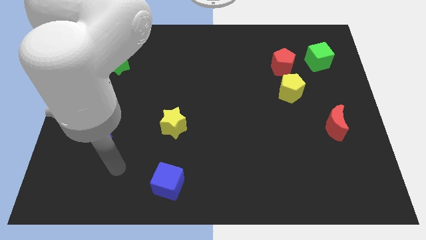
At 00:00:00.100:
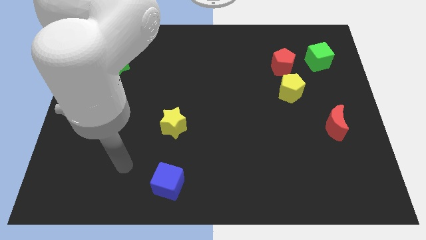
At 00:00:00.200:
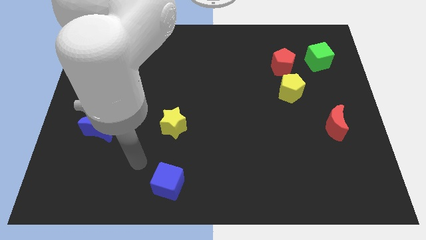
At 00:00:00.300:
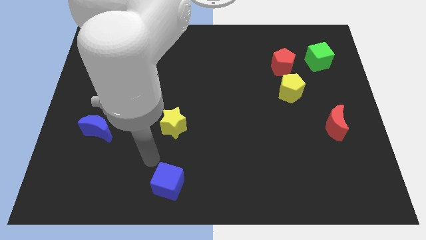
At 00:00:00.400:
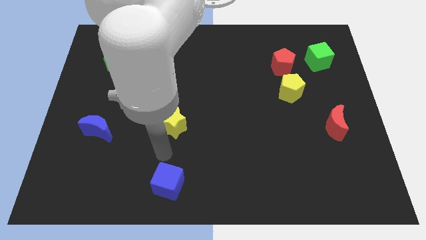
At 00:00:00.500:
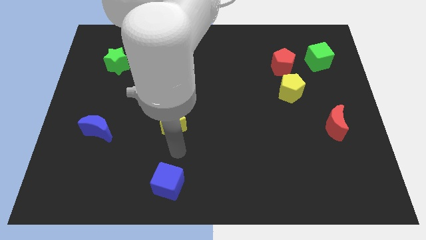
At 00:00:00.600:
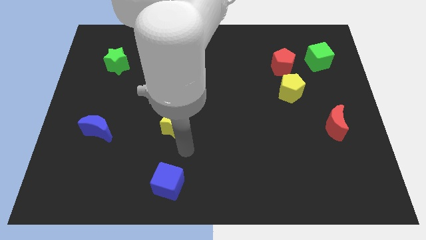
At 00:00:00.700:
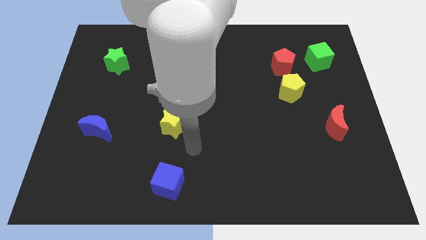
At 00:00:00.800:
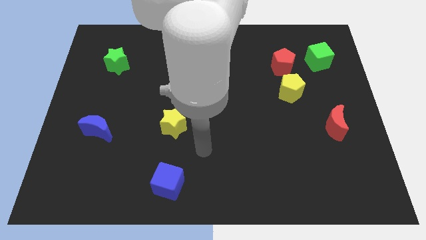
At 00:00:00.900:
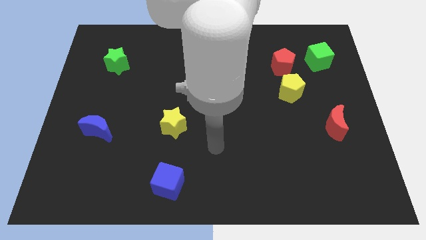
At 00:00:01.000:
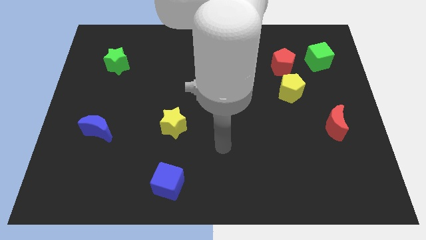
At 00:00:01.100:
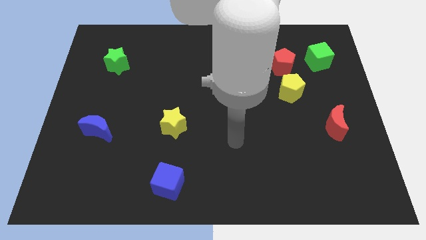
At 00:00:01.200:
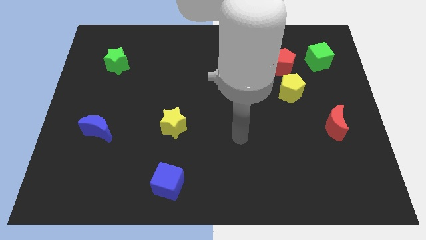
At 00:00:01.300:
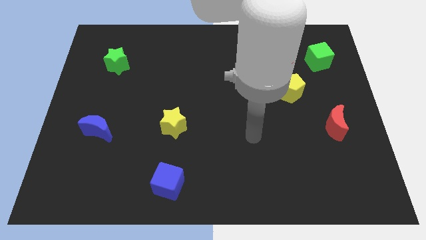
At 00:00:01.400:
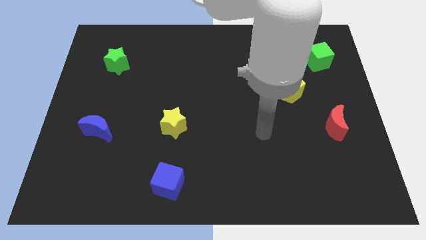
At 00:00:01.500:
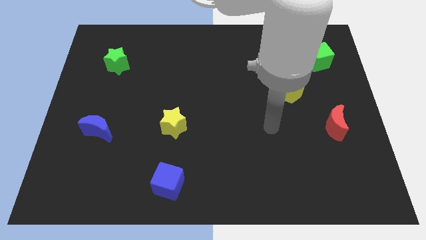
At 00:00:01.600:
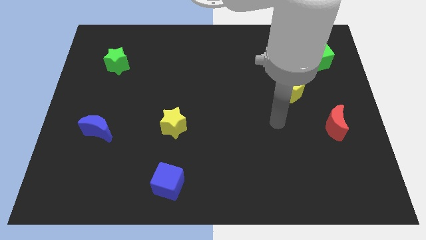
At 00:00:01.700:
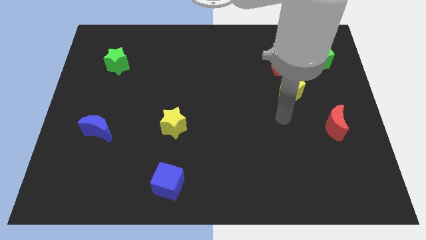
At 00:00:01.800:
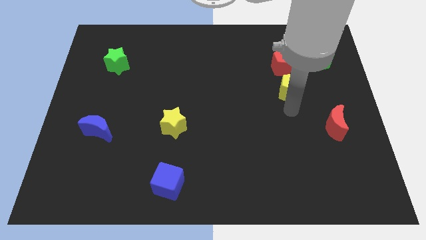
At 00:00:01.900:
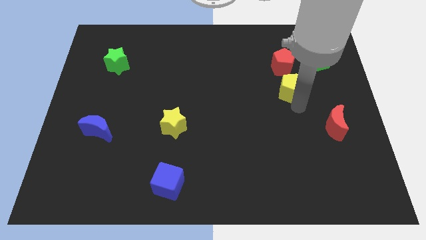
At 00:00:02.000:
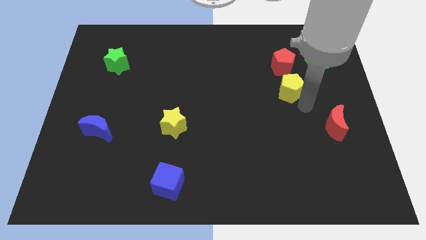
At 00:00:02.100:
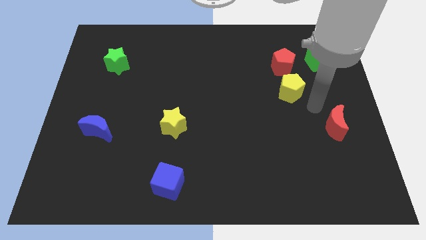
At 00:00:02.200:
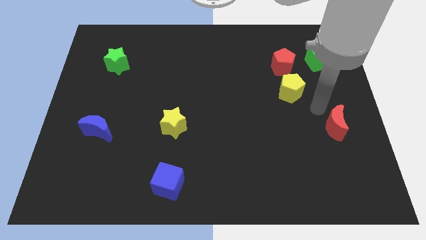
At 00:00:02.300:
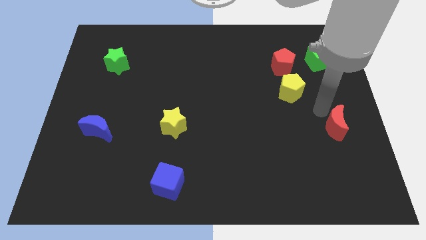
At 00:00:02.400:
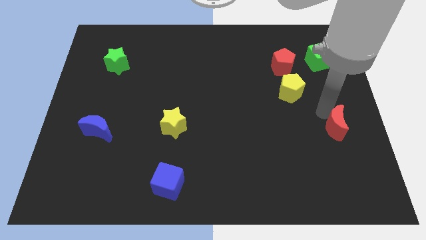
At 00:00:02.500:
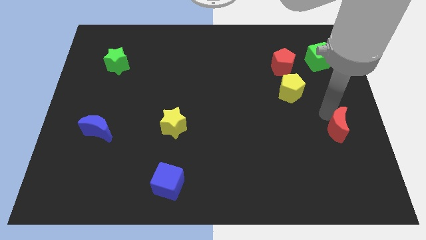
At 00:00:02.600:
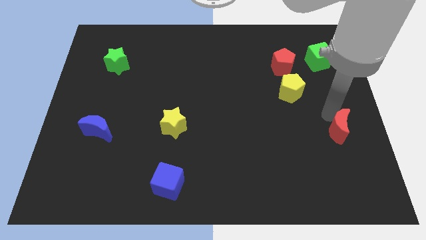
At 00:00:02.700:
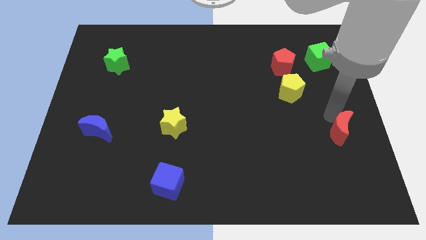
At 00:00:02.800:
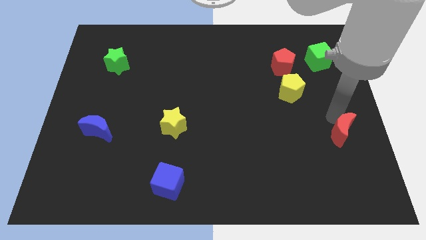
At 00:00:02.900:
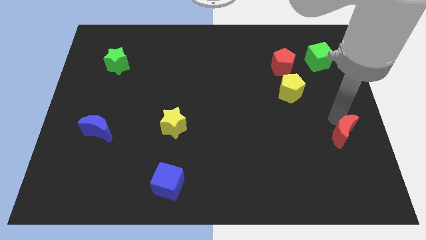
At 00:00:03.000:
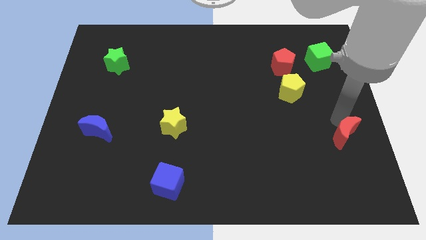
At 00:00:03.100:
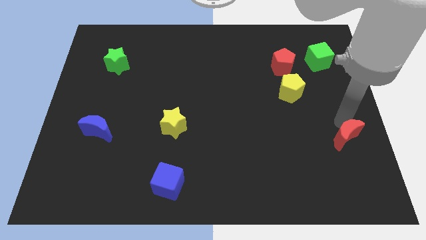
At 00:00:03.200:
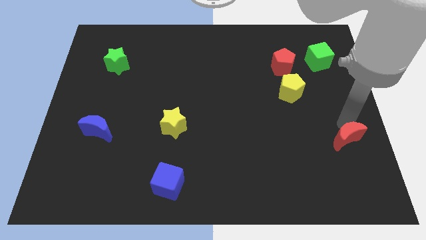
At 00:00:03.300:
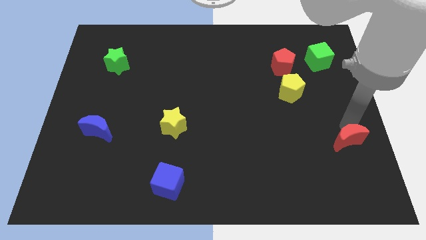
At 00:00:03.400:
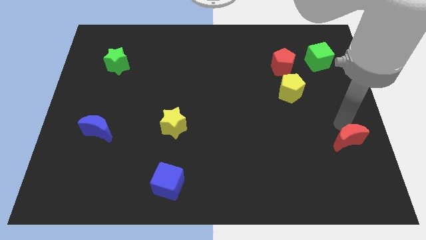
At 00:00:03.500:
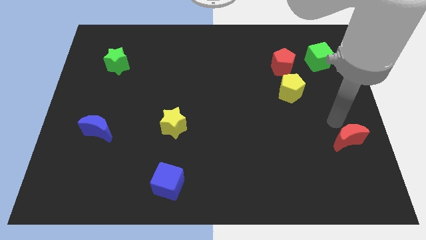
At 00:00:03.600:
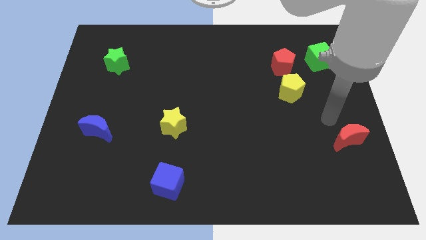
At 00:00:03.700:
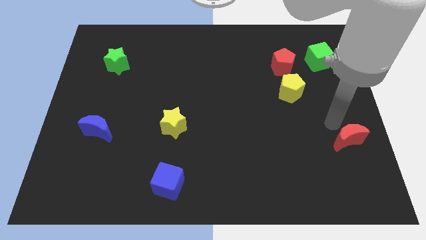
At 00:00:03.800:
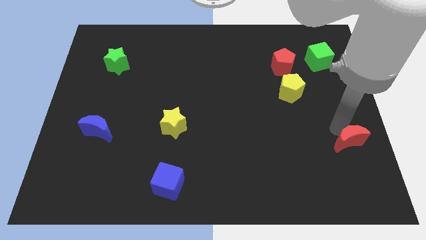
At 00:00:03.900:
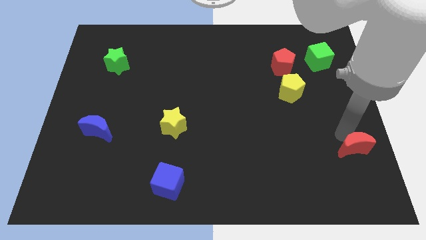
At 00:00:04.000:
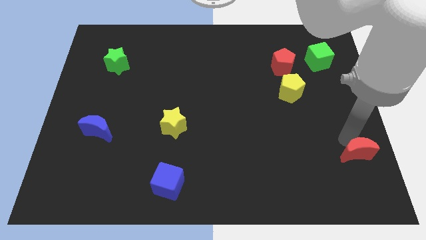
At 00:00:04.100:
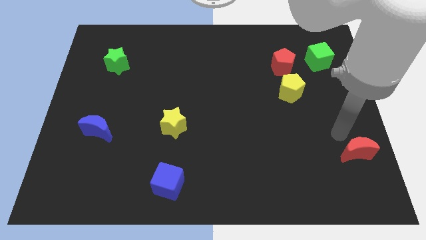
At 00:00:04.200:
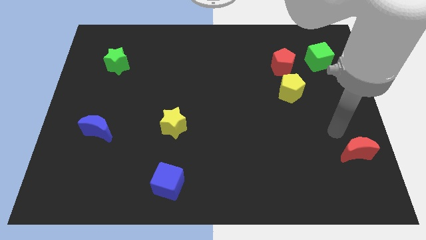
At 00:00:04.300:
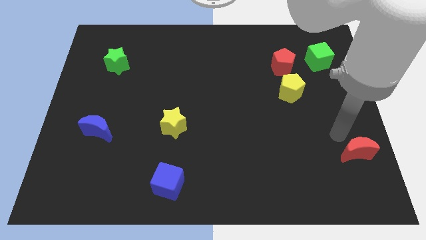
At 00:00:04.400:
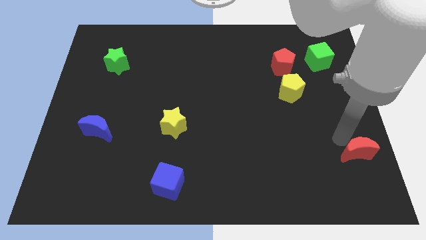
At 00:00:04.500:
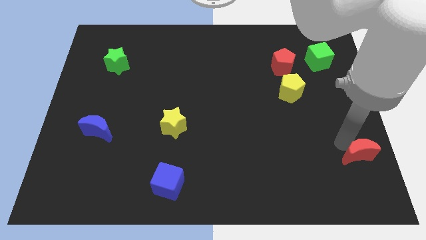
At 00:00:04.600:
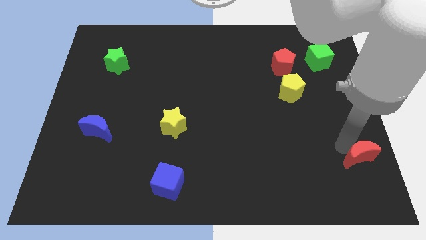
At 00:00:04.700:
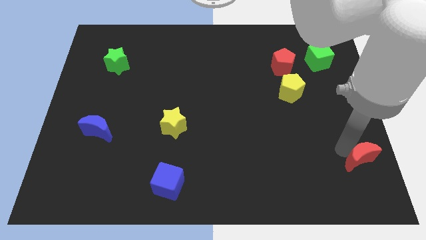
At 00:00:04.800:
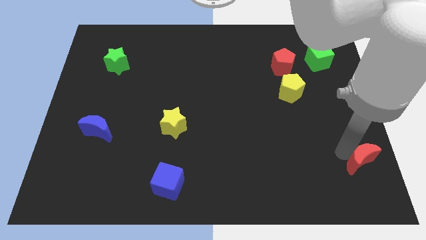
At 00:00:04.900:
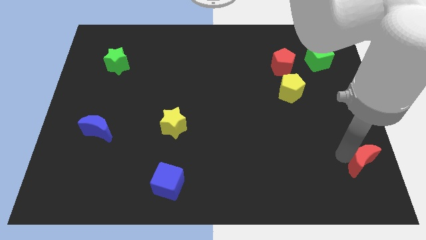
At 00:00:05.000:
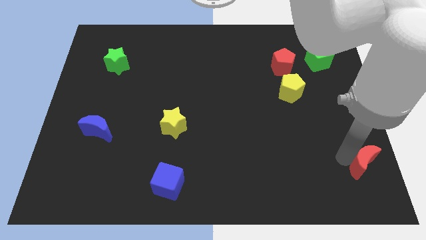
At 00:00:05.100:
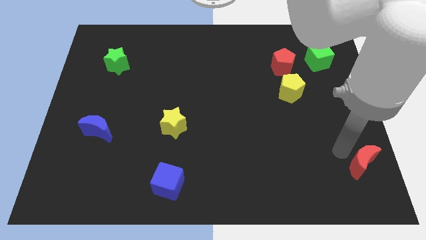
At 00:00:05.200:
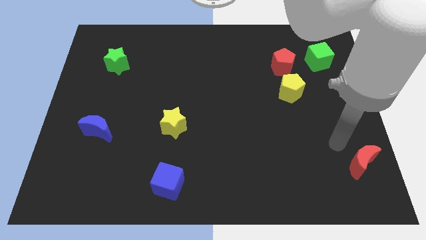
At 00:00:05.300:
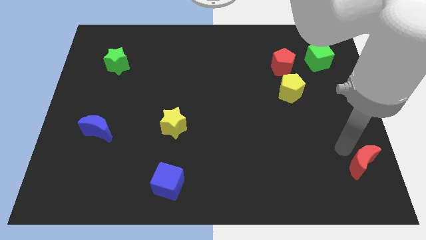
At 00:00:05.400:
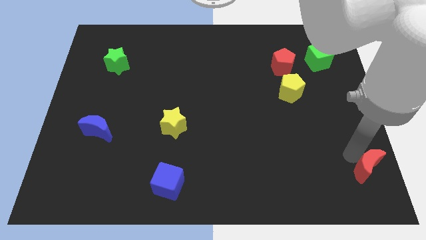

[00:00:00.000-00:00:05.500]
push the red moon to the lower right corner
